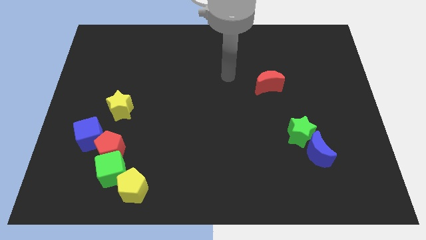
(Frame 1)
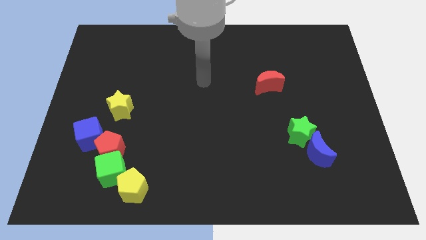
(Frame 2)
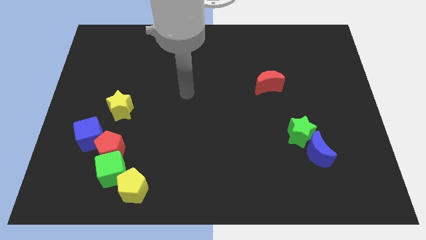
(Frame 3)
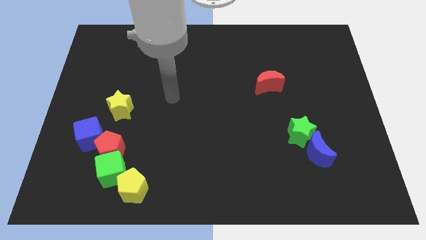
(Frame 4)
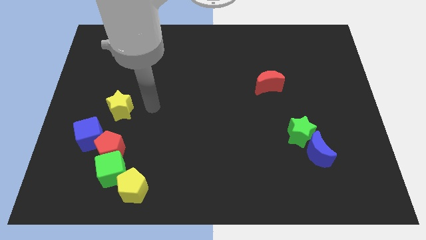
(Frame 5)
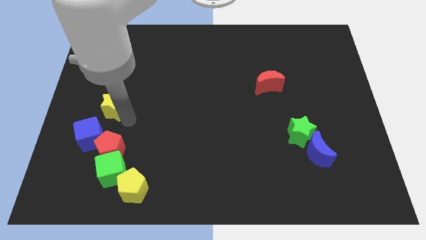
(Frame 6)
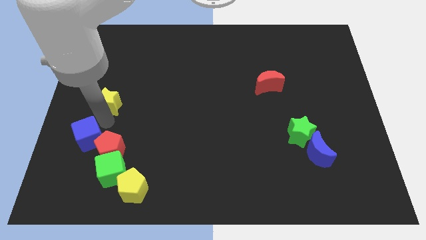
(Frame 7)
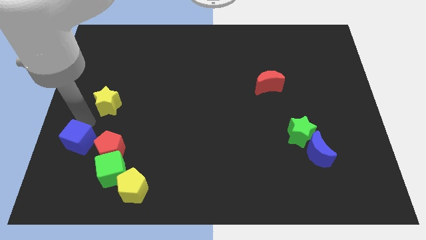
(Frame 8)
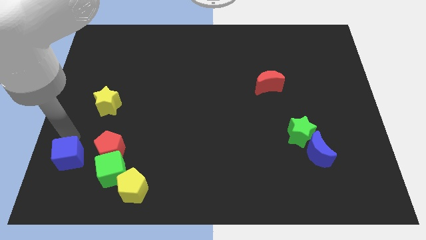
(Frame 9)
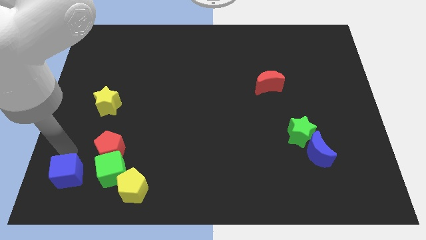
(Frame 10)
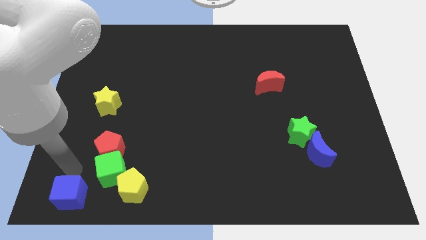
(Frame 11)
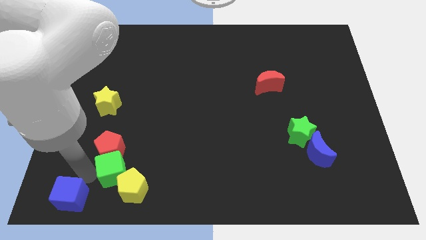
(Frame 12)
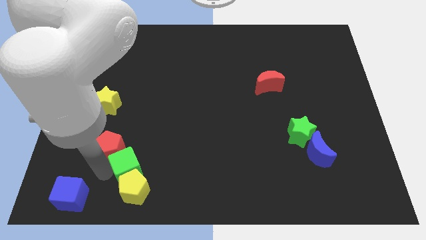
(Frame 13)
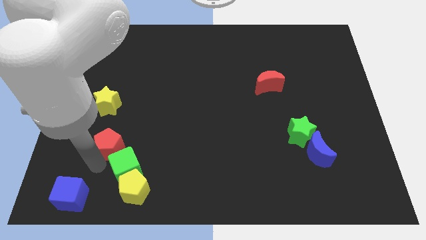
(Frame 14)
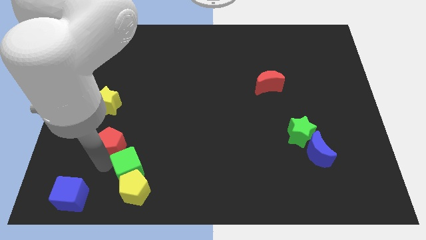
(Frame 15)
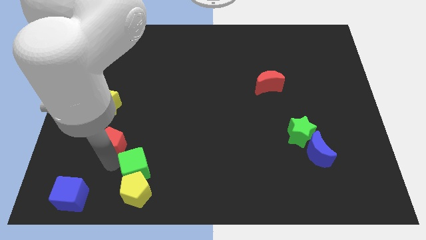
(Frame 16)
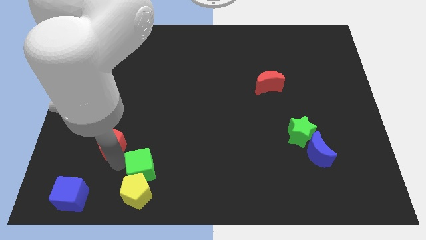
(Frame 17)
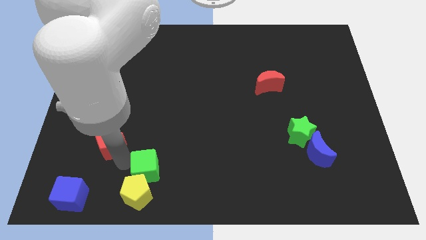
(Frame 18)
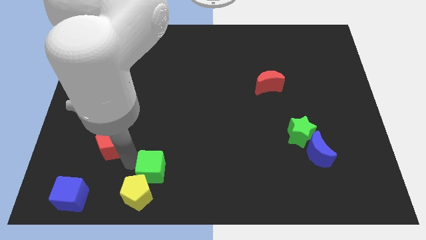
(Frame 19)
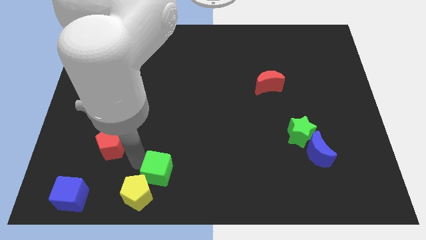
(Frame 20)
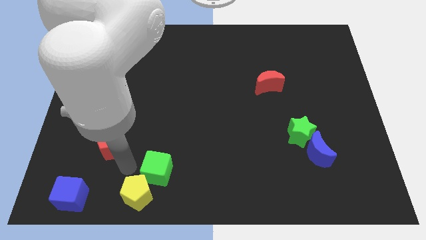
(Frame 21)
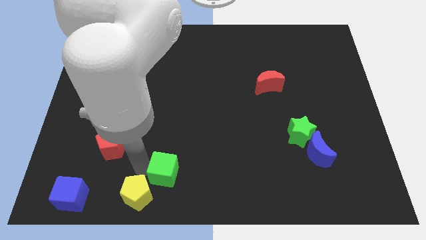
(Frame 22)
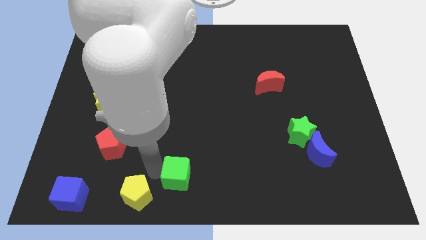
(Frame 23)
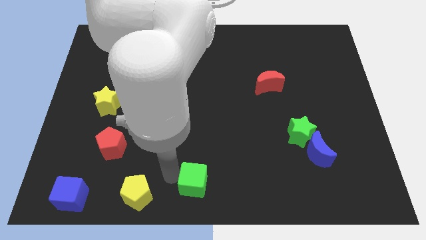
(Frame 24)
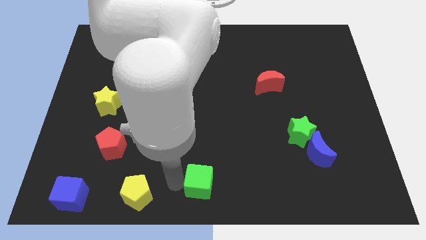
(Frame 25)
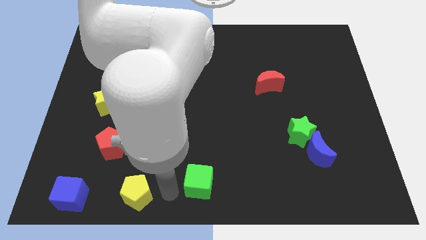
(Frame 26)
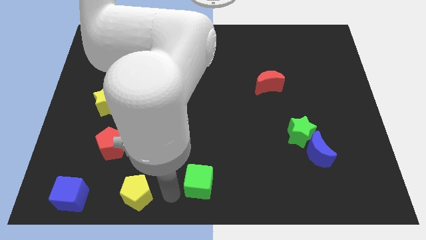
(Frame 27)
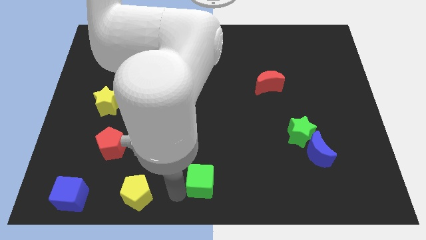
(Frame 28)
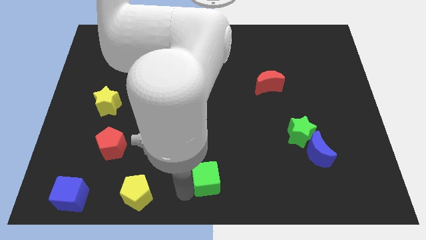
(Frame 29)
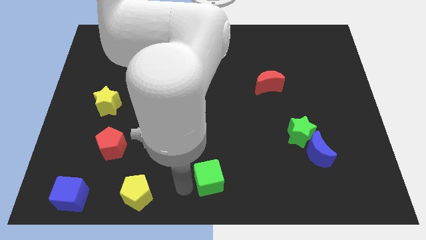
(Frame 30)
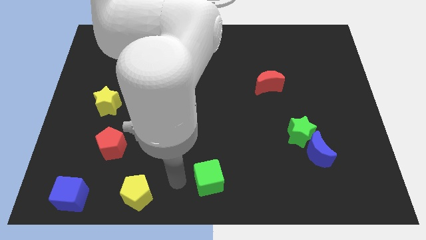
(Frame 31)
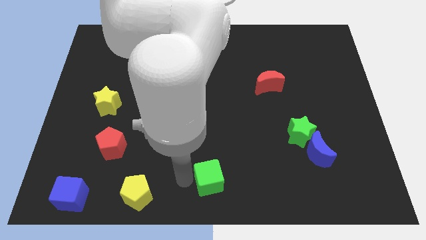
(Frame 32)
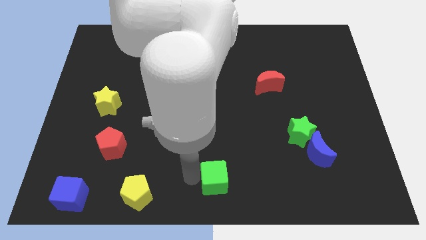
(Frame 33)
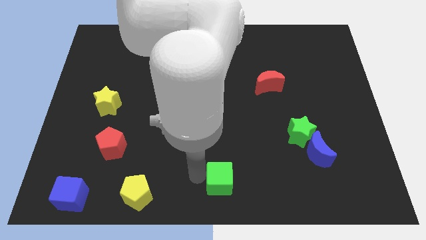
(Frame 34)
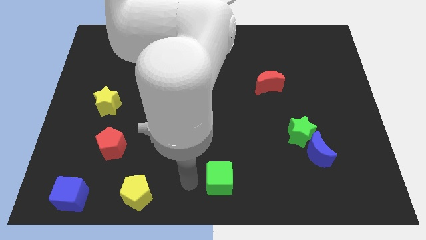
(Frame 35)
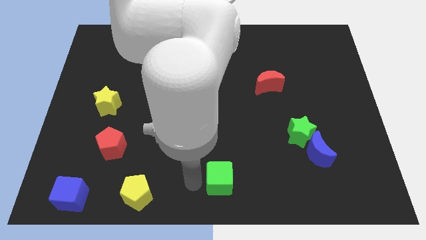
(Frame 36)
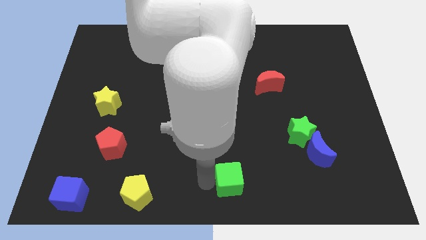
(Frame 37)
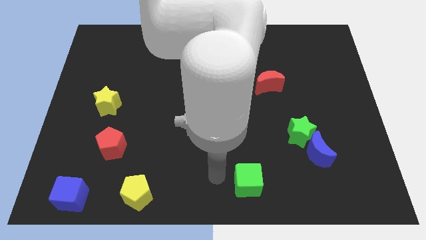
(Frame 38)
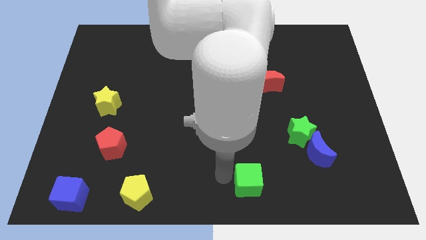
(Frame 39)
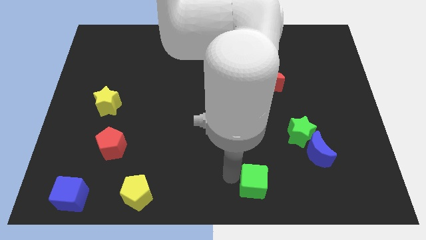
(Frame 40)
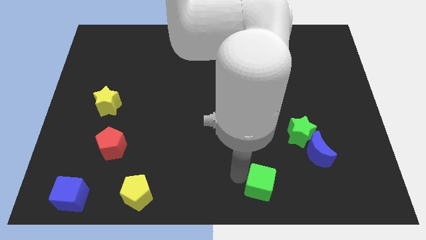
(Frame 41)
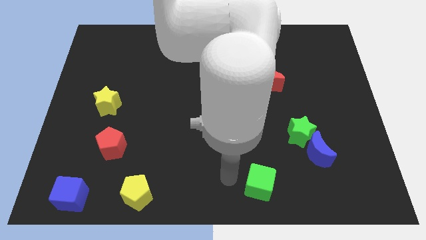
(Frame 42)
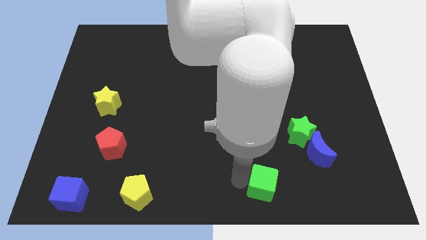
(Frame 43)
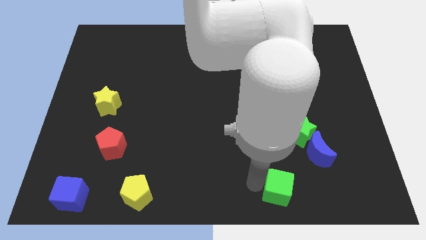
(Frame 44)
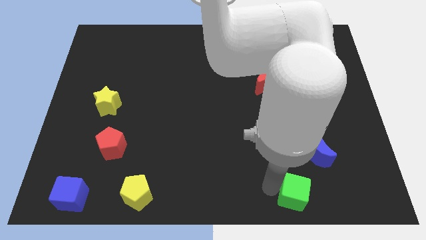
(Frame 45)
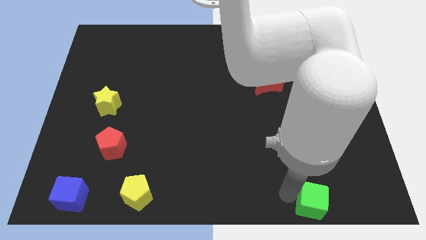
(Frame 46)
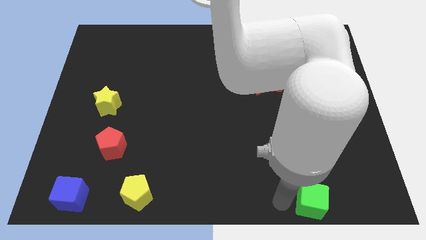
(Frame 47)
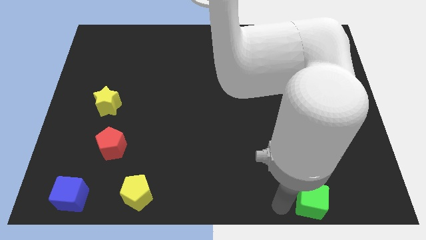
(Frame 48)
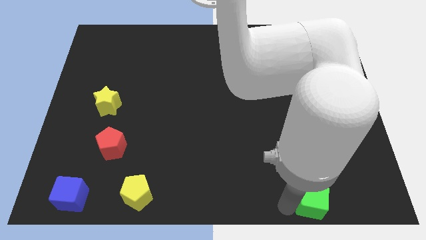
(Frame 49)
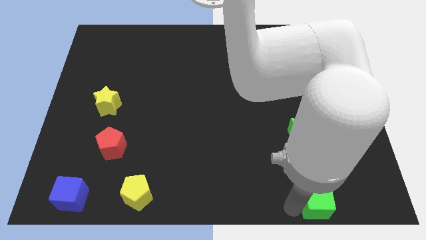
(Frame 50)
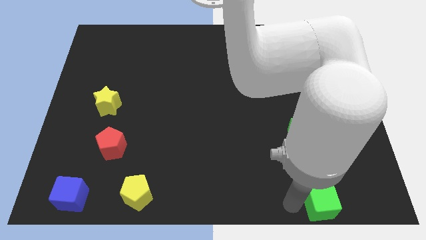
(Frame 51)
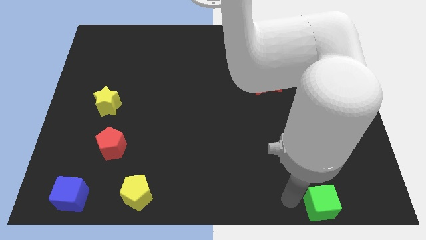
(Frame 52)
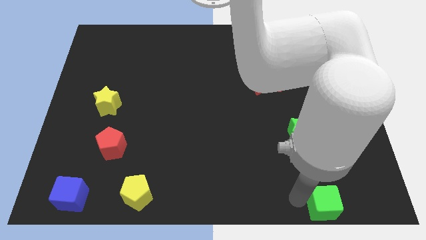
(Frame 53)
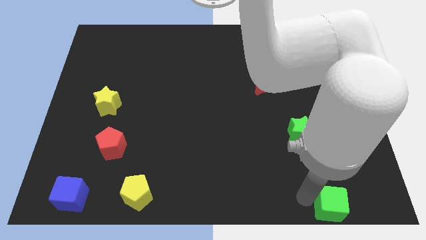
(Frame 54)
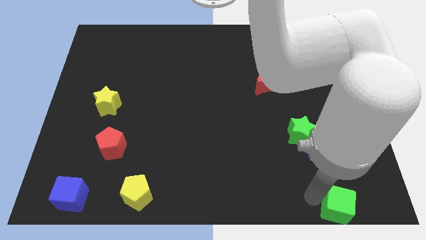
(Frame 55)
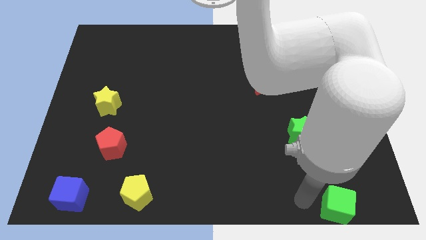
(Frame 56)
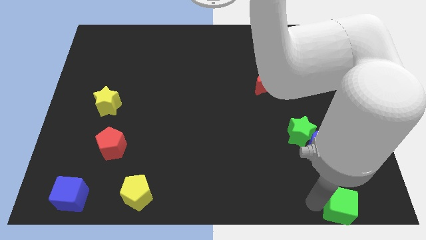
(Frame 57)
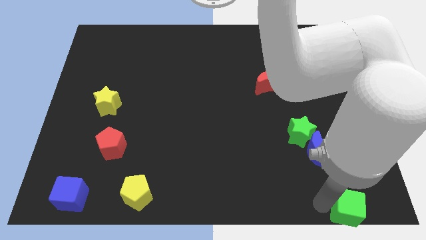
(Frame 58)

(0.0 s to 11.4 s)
slide the green cube to the bottom right of the board

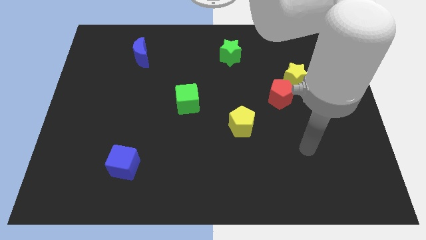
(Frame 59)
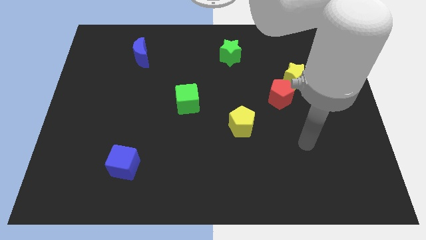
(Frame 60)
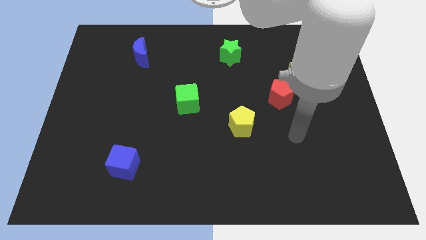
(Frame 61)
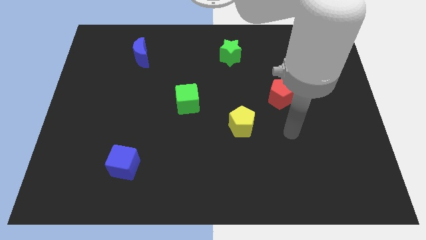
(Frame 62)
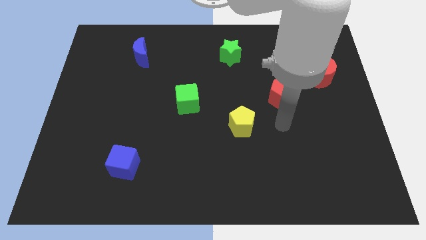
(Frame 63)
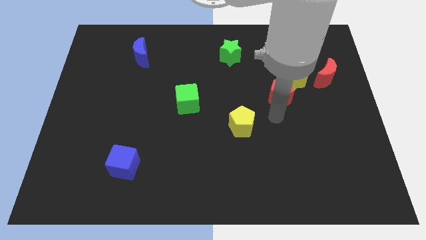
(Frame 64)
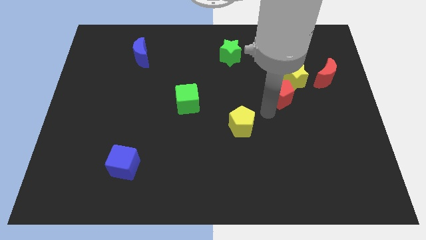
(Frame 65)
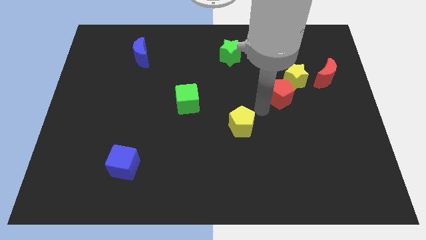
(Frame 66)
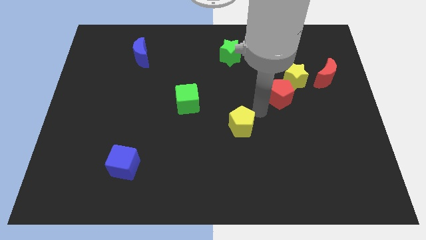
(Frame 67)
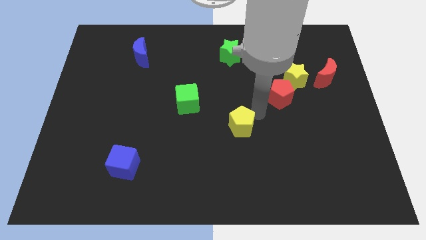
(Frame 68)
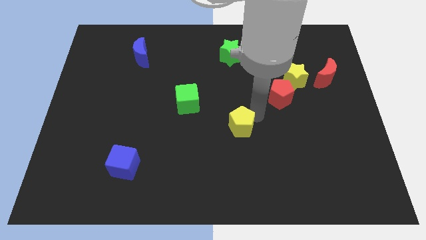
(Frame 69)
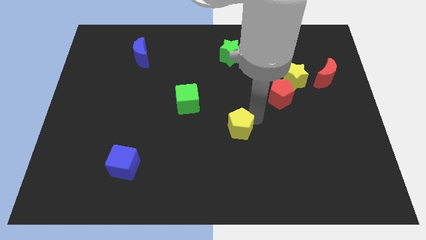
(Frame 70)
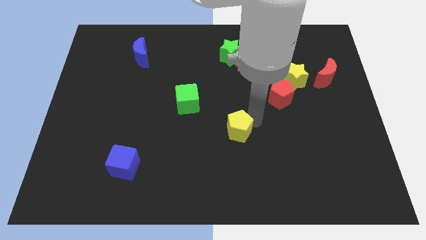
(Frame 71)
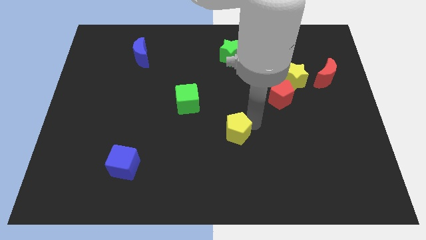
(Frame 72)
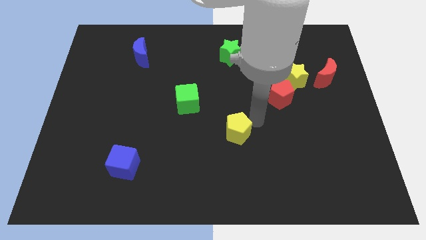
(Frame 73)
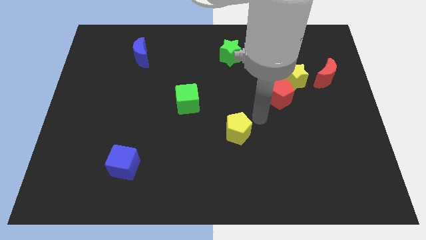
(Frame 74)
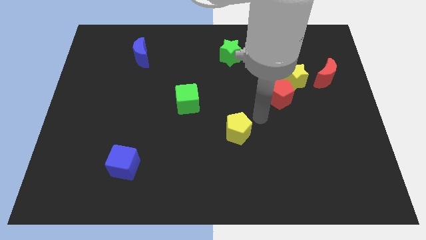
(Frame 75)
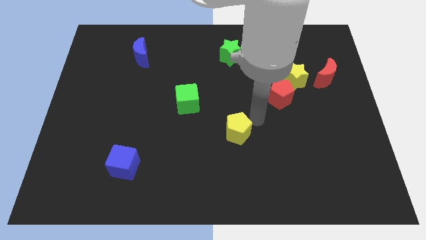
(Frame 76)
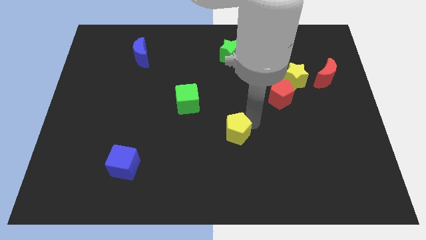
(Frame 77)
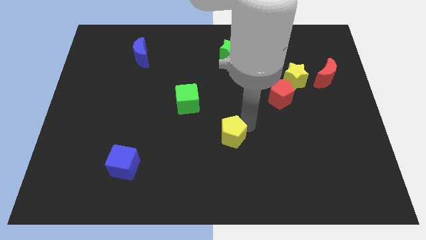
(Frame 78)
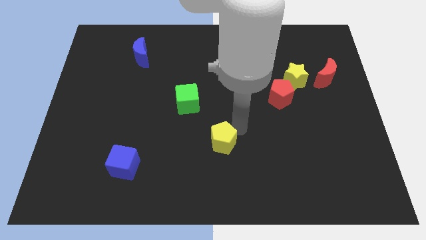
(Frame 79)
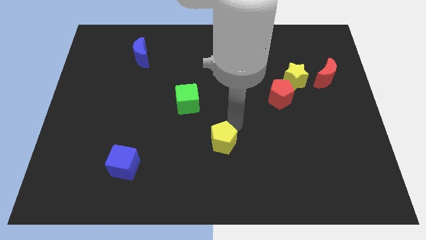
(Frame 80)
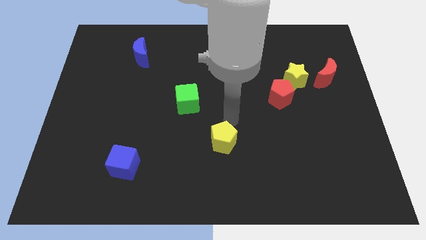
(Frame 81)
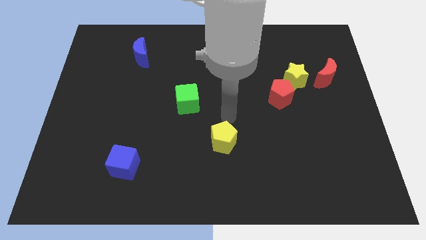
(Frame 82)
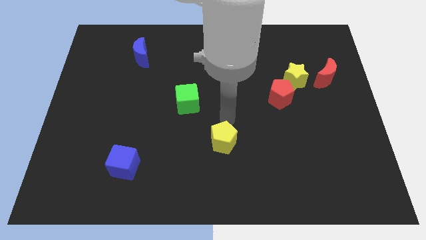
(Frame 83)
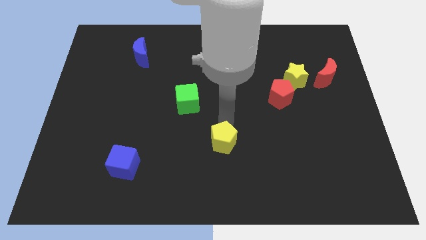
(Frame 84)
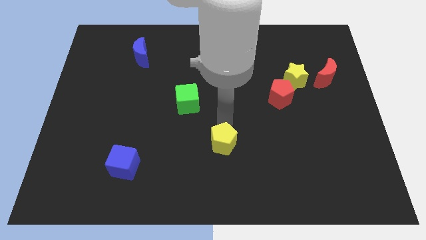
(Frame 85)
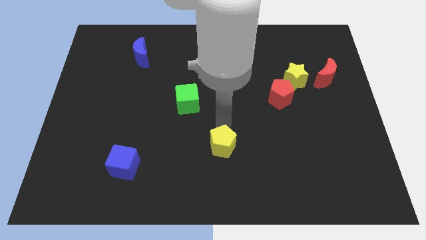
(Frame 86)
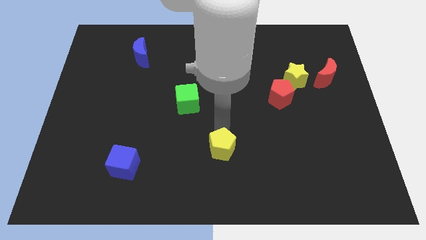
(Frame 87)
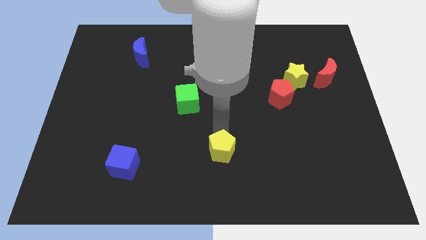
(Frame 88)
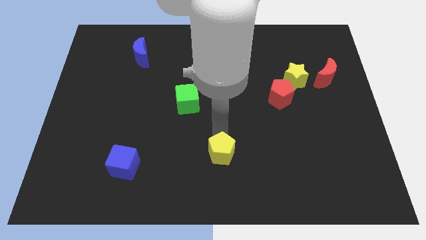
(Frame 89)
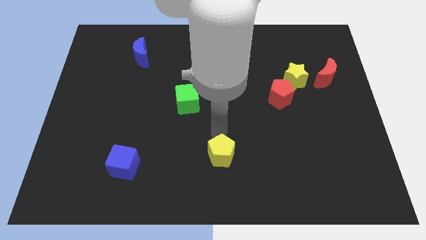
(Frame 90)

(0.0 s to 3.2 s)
slide the yellow pentagon to the bottom side
